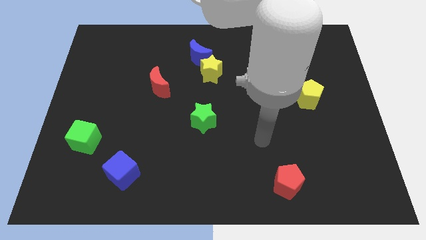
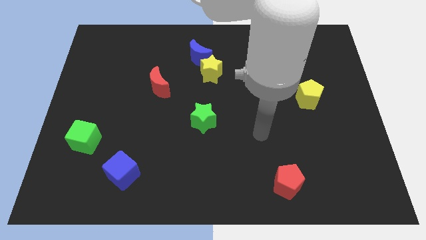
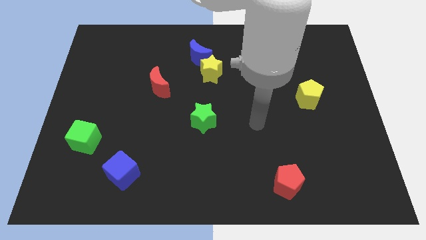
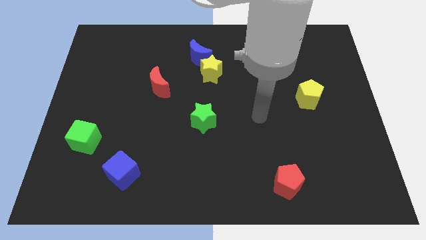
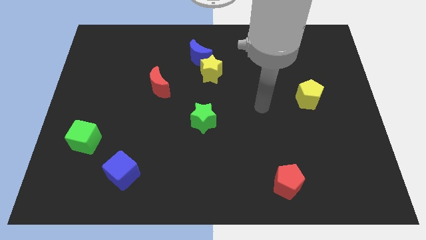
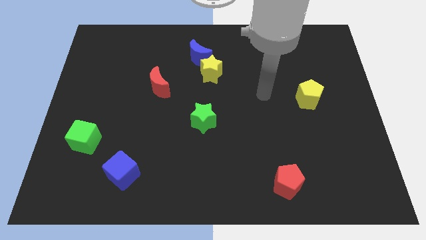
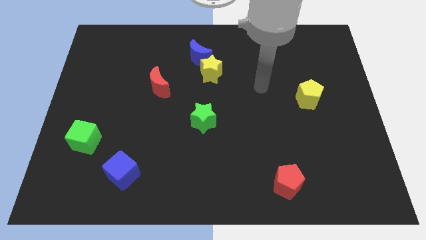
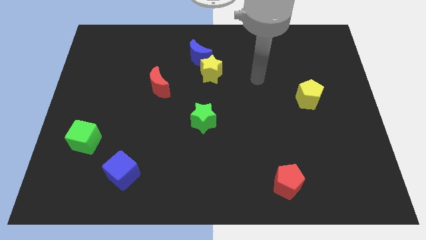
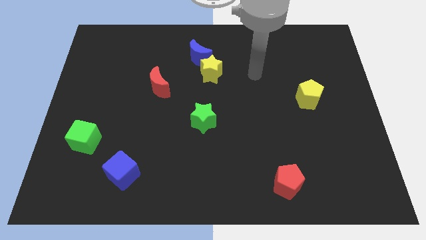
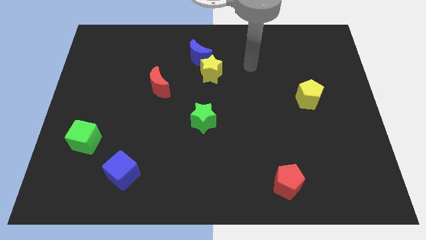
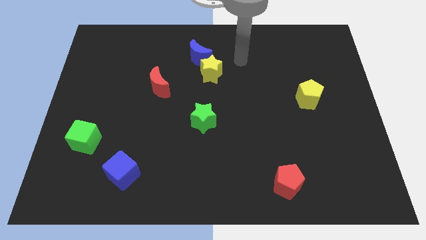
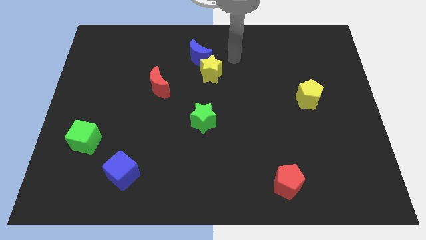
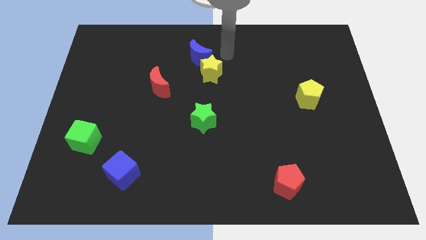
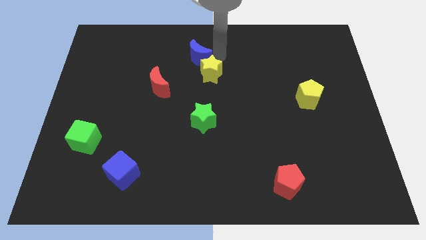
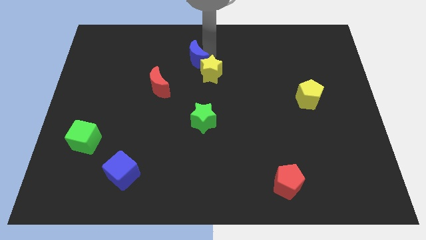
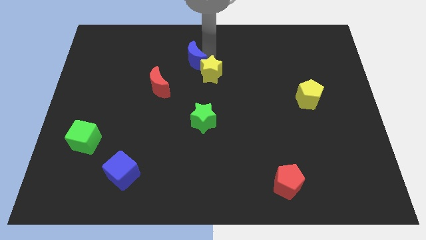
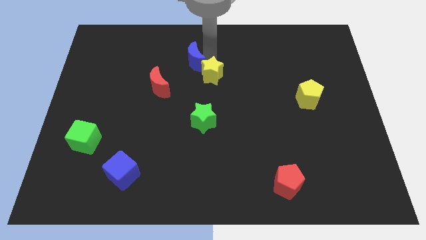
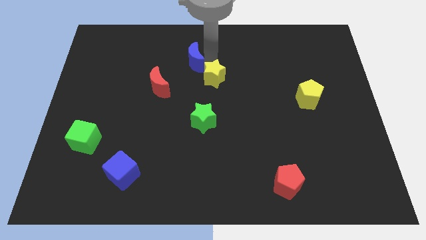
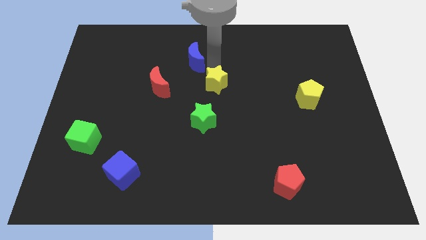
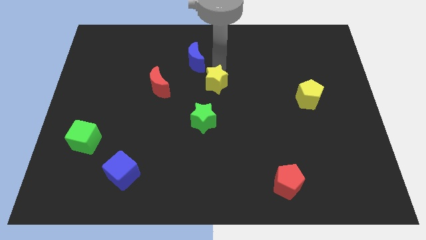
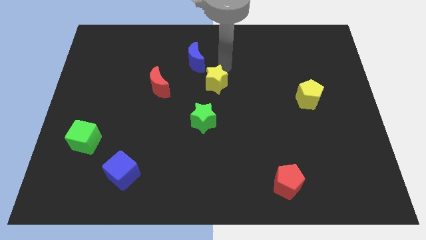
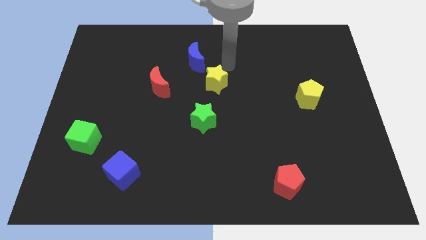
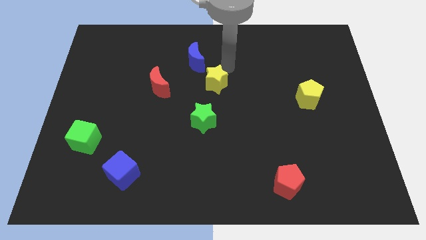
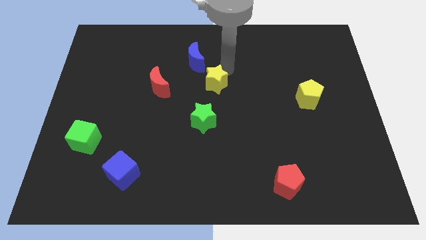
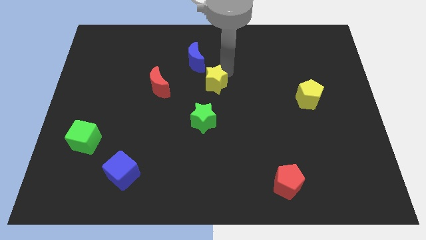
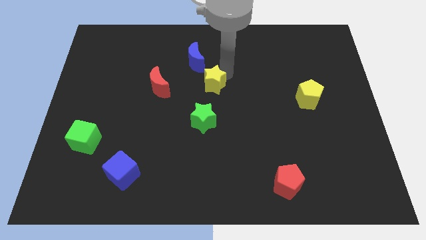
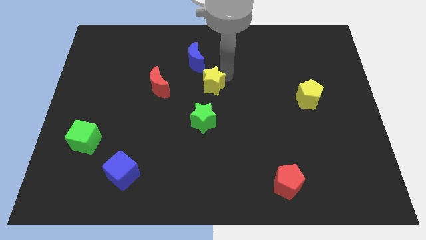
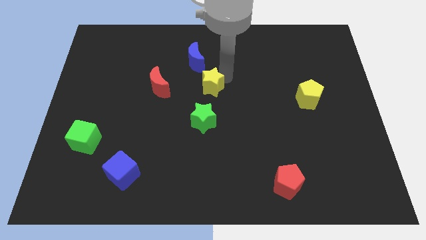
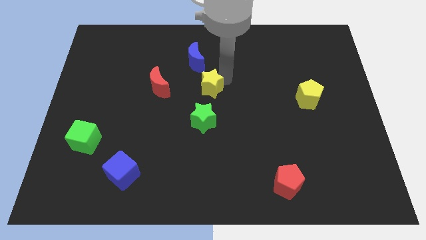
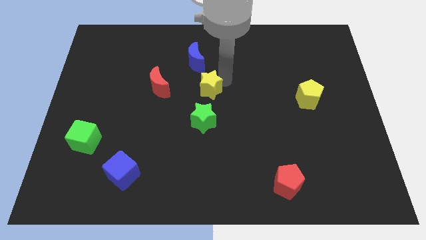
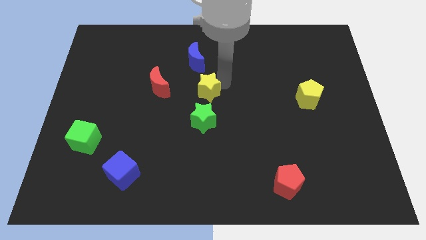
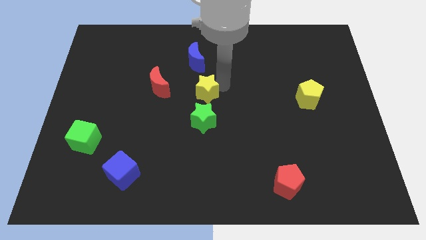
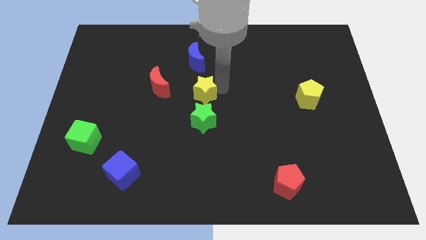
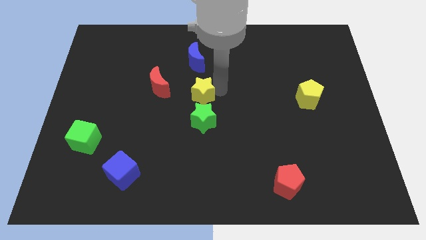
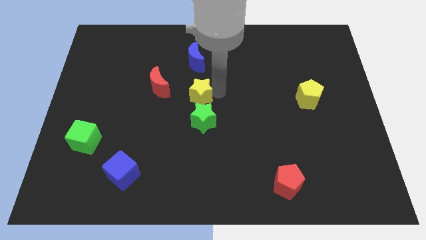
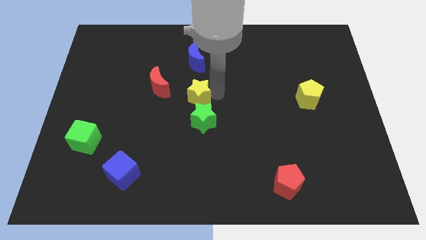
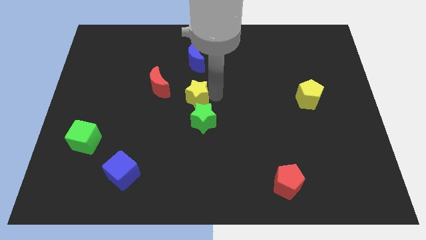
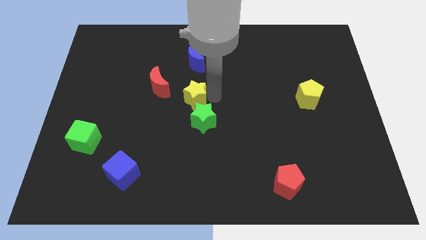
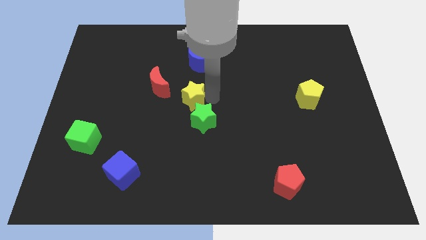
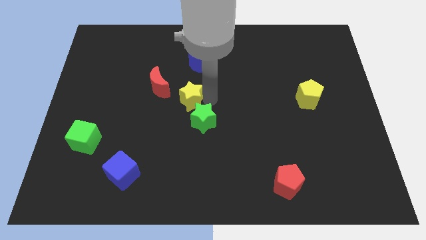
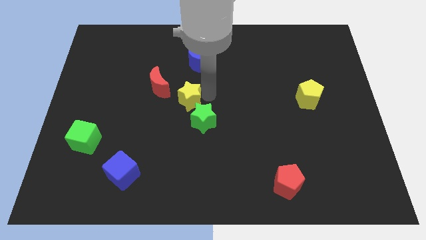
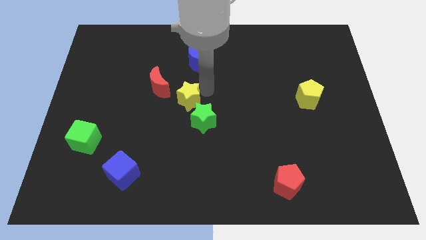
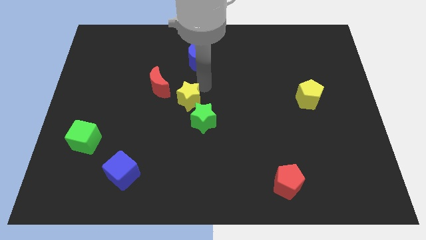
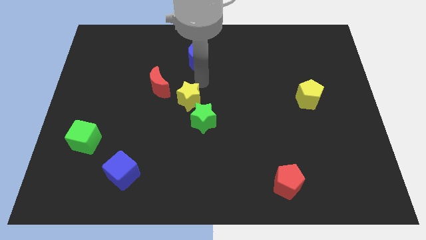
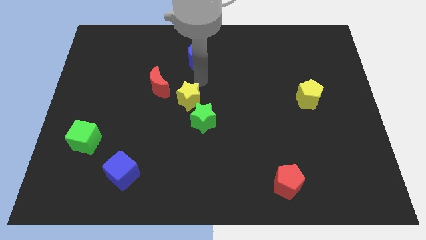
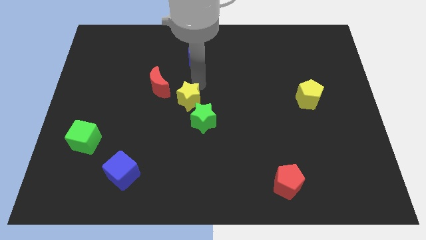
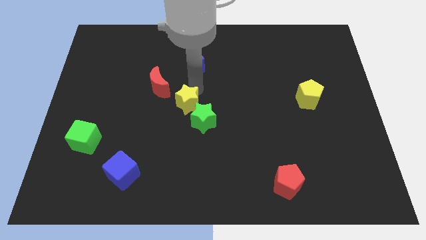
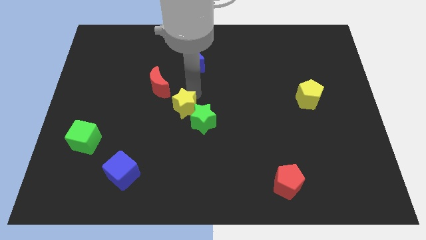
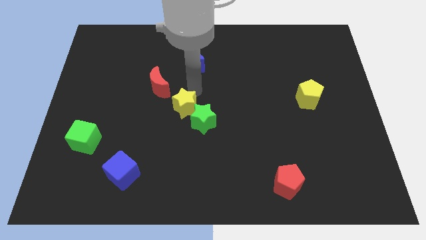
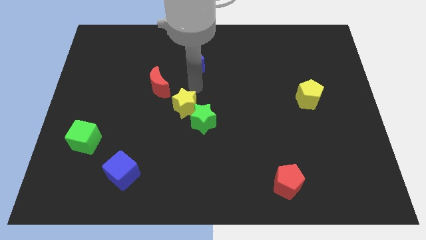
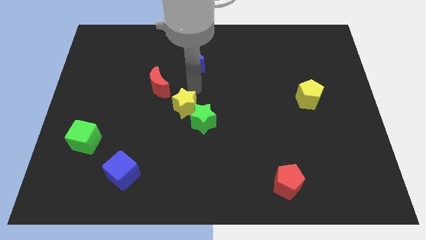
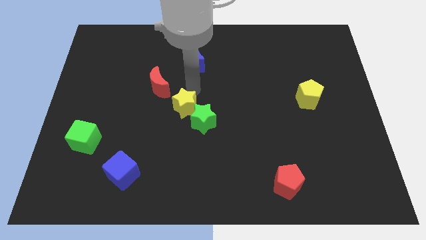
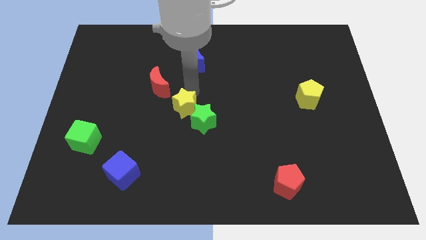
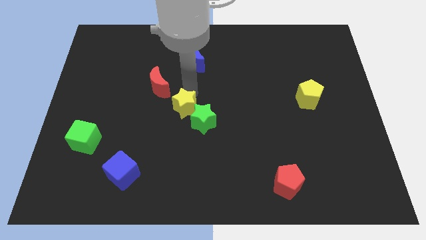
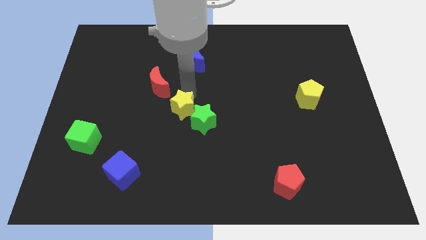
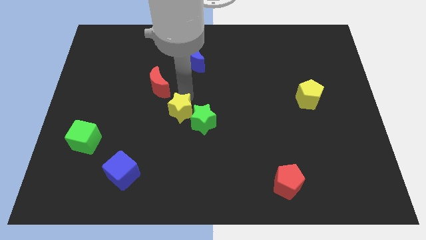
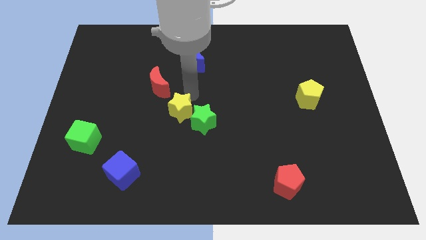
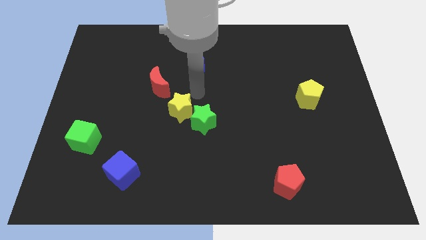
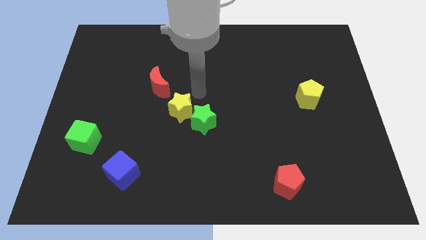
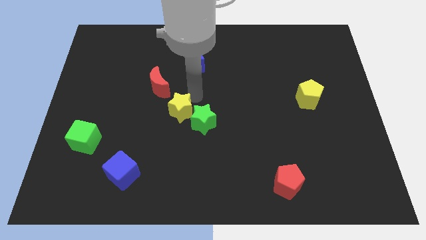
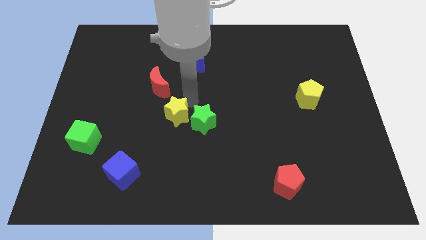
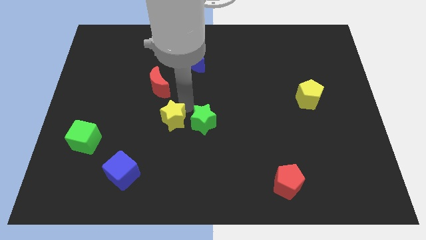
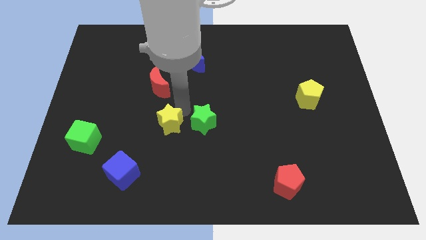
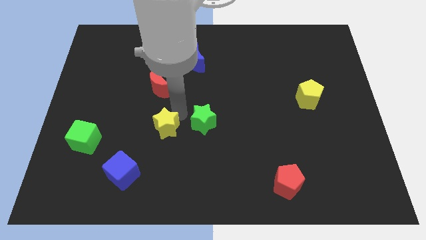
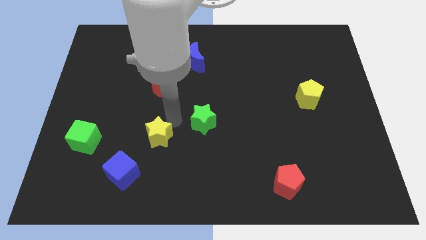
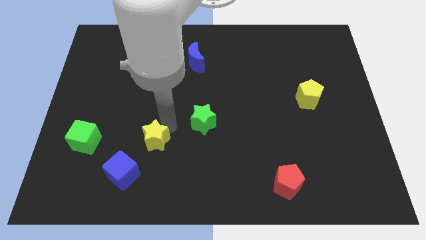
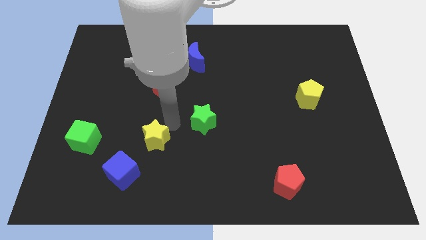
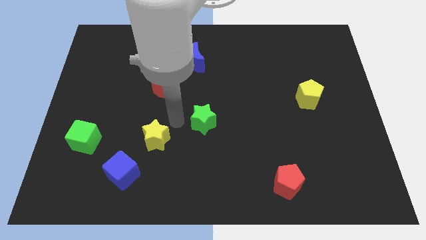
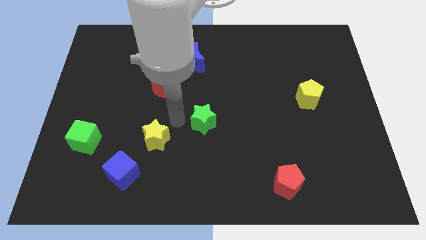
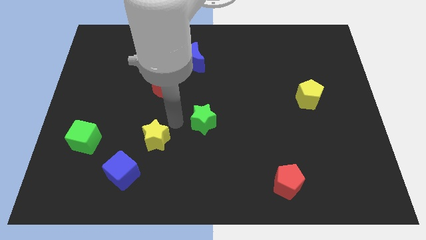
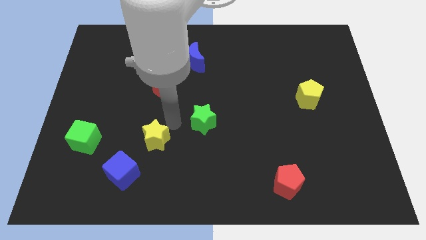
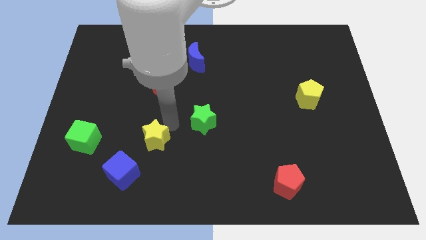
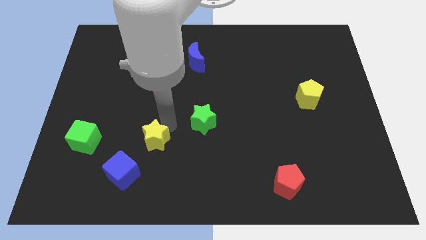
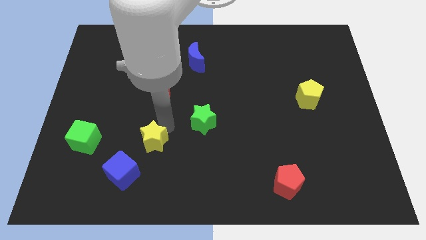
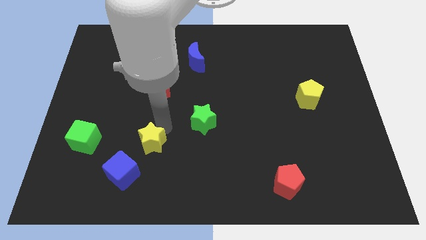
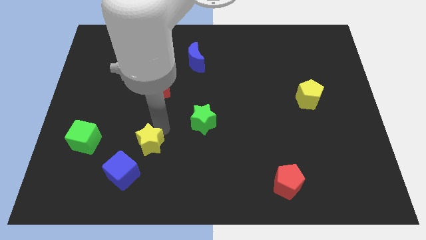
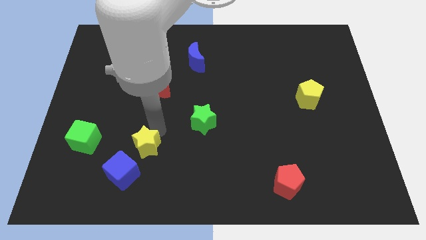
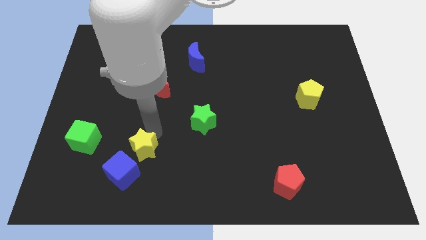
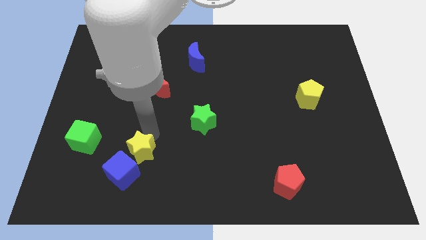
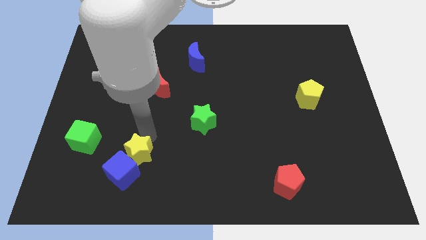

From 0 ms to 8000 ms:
push the yellow star next to the blue cube
